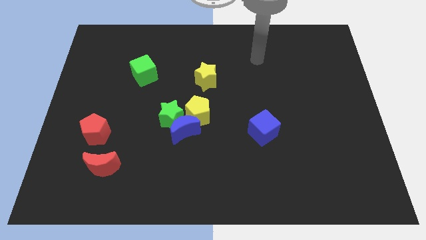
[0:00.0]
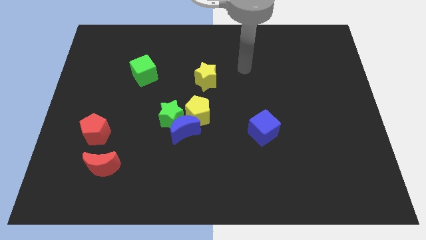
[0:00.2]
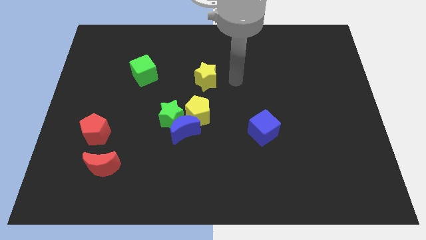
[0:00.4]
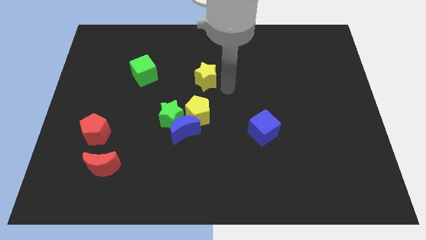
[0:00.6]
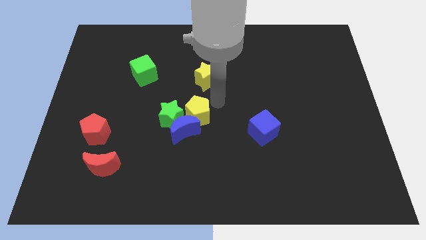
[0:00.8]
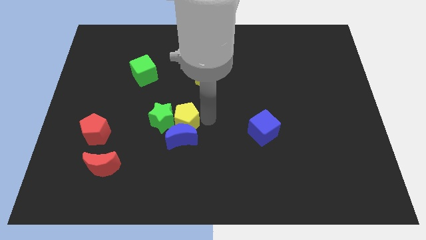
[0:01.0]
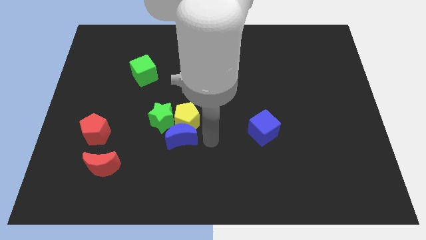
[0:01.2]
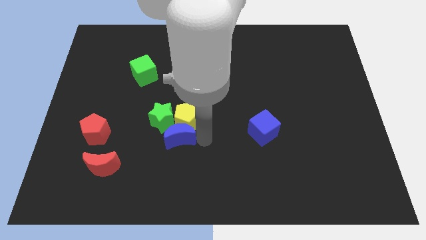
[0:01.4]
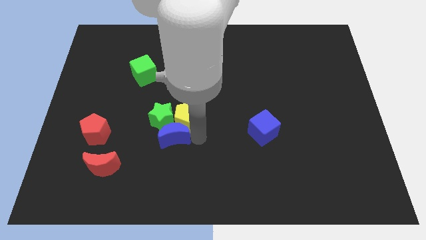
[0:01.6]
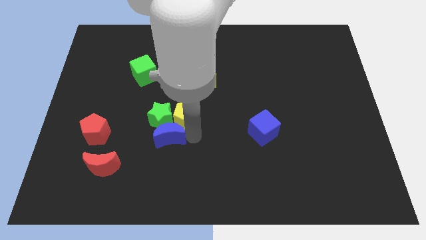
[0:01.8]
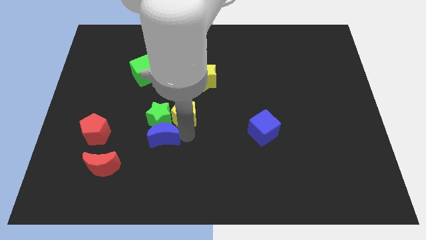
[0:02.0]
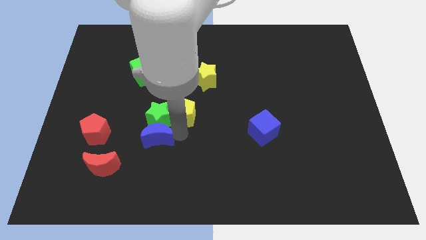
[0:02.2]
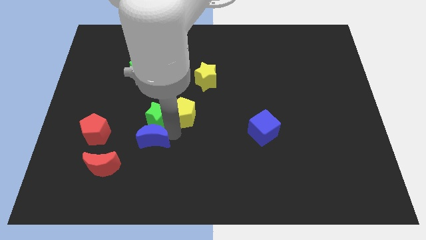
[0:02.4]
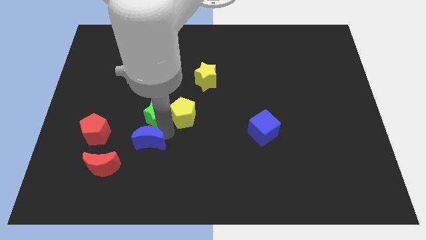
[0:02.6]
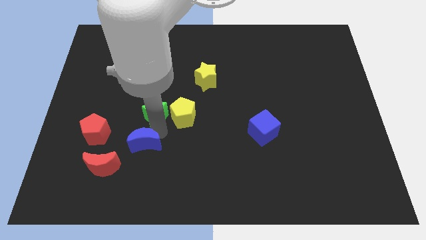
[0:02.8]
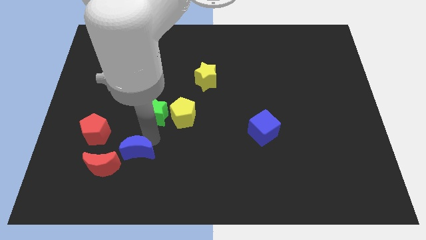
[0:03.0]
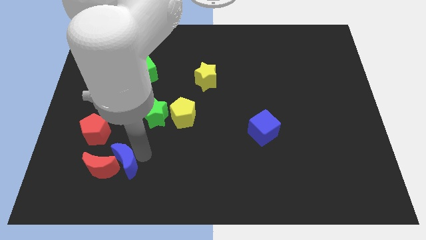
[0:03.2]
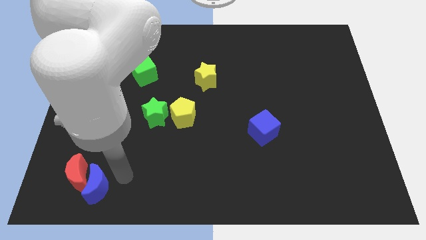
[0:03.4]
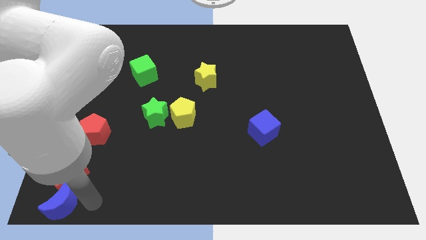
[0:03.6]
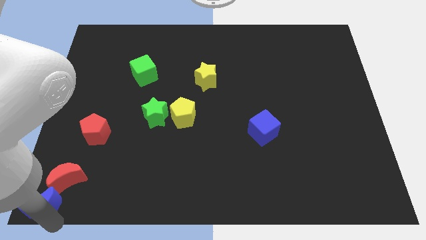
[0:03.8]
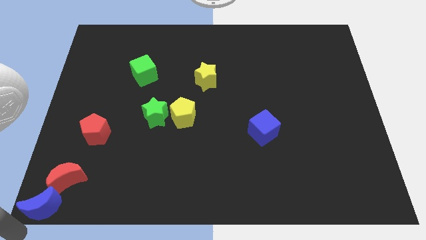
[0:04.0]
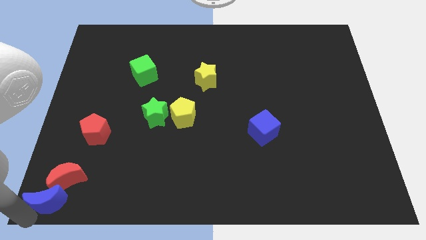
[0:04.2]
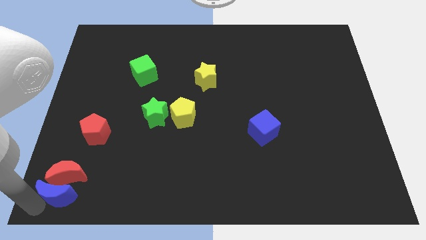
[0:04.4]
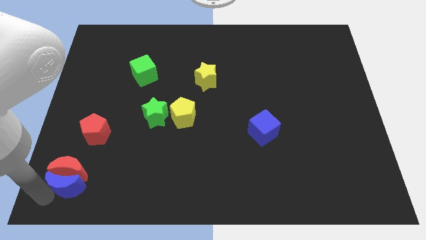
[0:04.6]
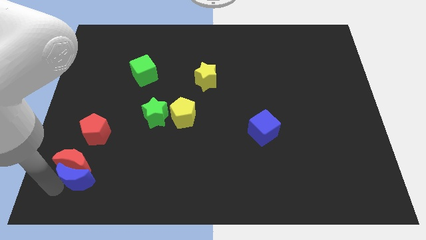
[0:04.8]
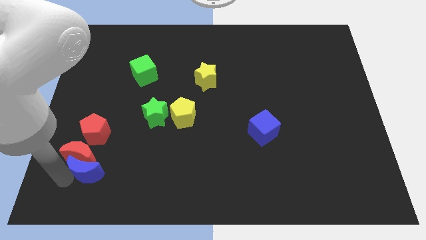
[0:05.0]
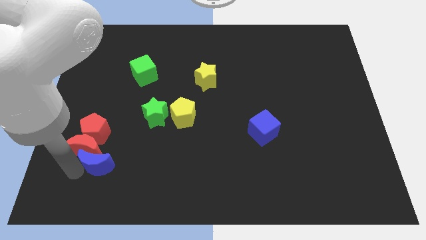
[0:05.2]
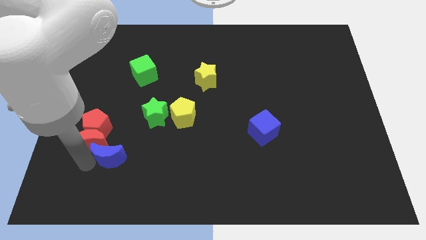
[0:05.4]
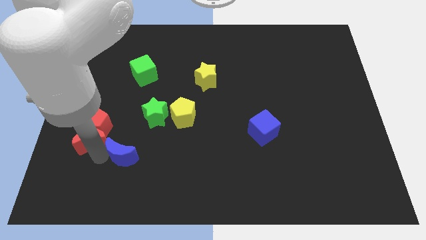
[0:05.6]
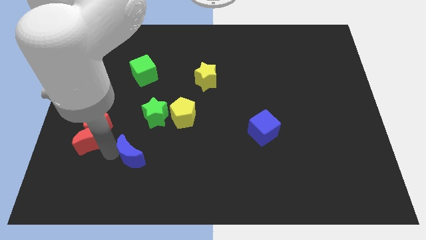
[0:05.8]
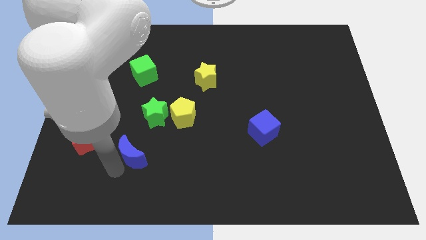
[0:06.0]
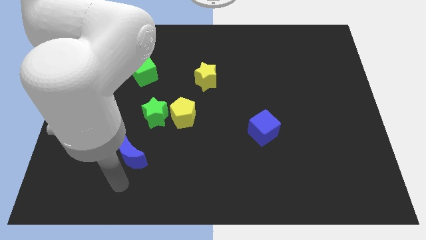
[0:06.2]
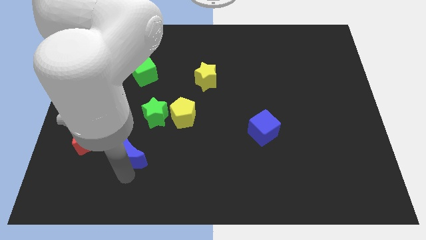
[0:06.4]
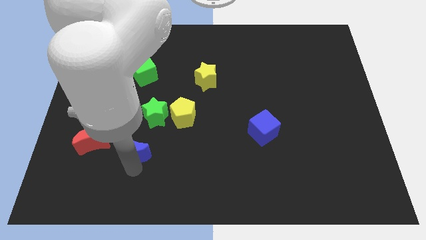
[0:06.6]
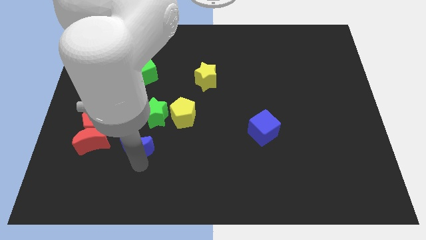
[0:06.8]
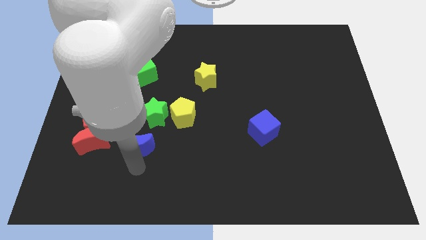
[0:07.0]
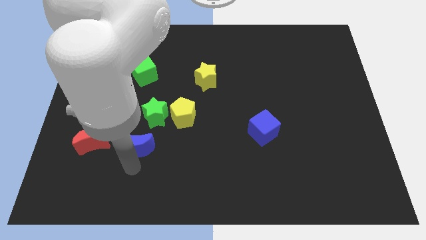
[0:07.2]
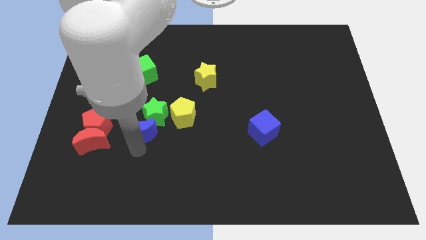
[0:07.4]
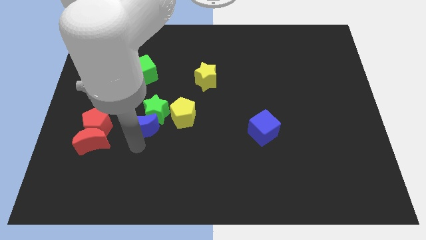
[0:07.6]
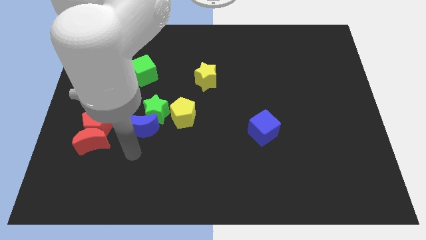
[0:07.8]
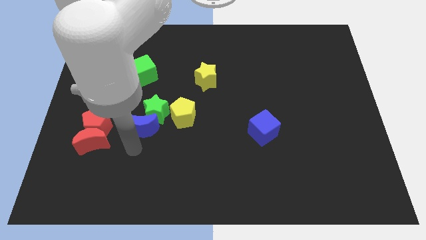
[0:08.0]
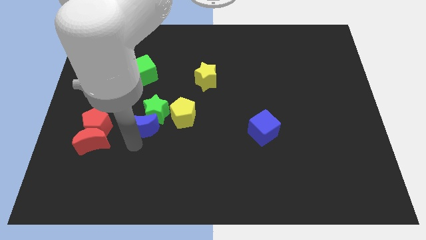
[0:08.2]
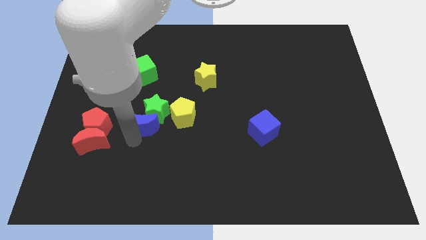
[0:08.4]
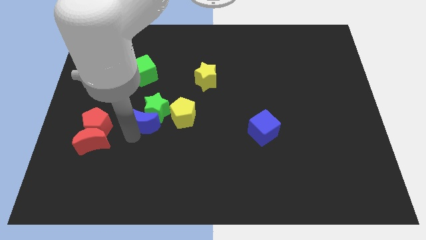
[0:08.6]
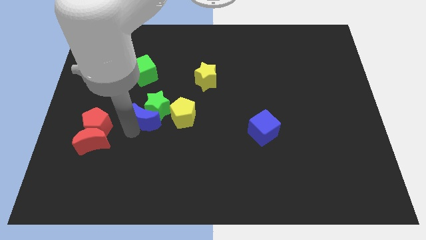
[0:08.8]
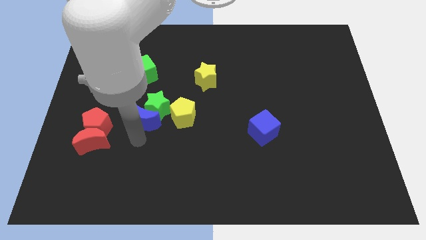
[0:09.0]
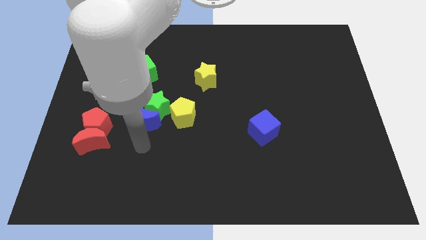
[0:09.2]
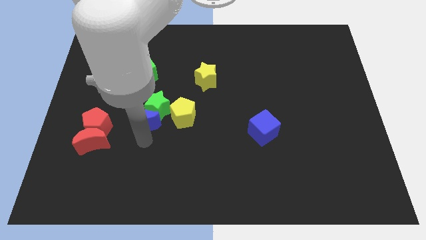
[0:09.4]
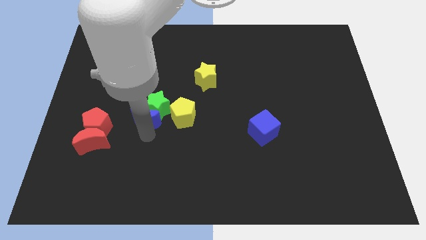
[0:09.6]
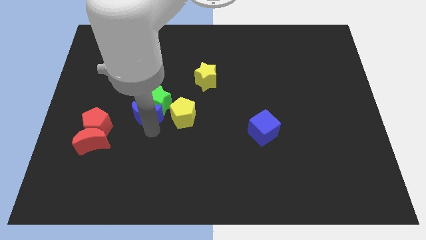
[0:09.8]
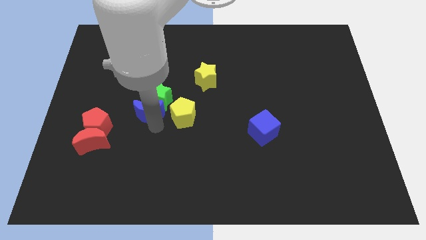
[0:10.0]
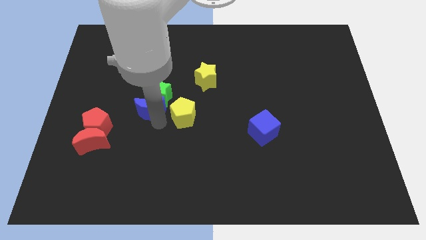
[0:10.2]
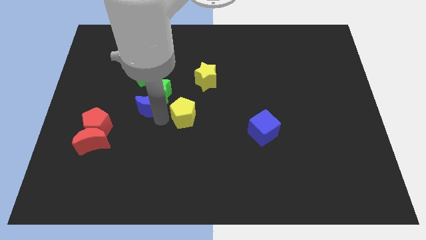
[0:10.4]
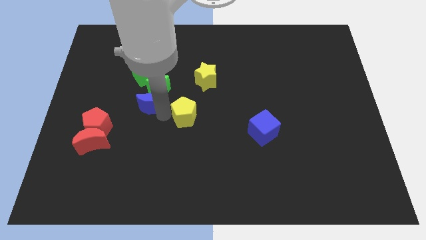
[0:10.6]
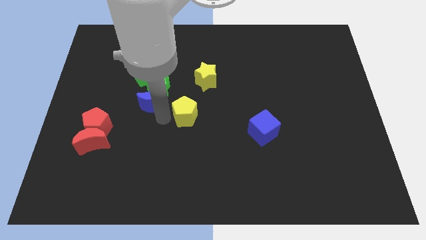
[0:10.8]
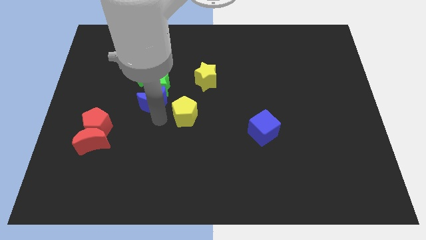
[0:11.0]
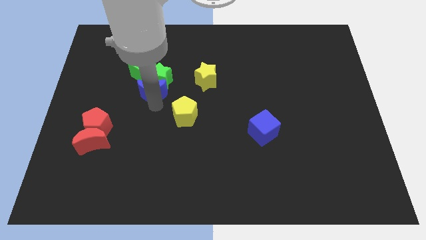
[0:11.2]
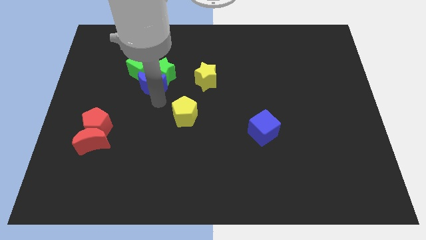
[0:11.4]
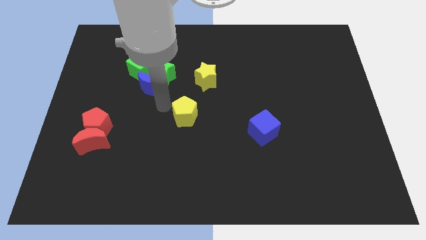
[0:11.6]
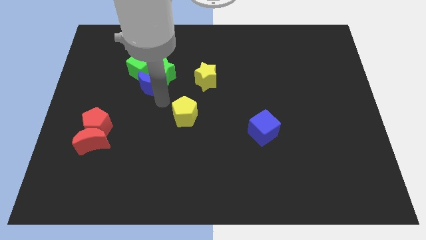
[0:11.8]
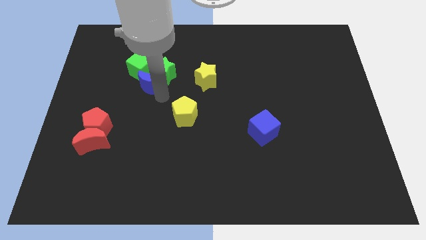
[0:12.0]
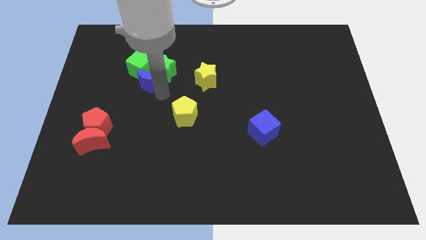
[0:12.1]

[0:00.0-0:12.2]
push the blue moon close to the green cube

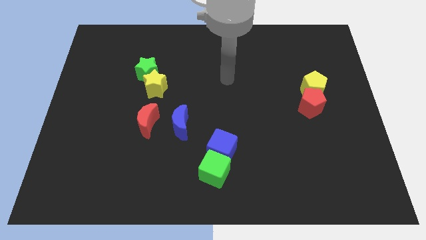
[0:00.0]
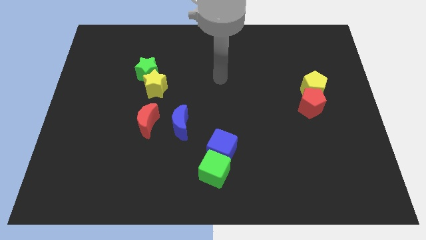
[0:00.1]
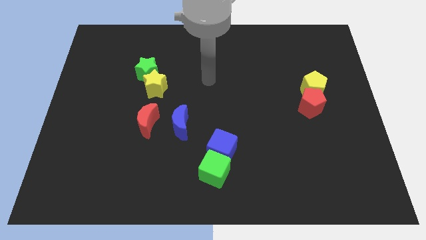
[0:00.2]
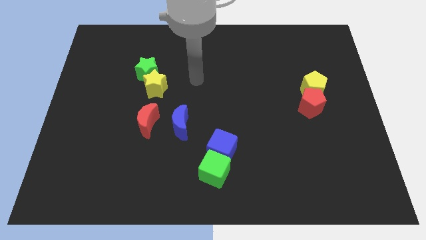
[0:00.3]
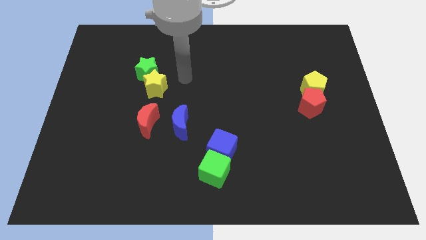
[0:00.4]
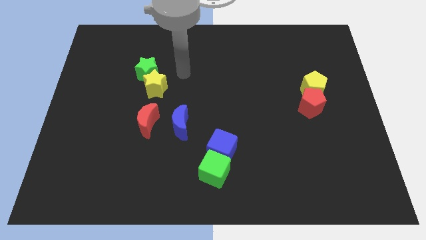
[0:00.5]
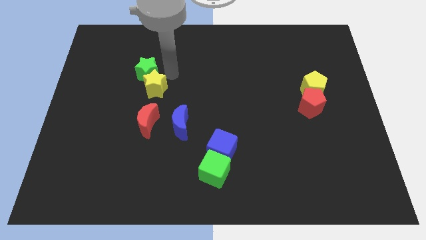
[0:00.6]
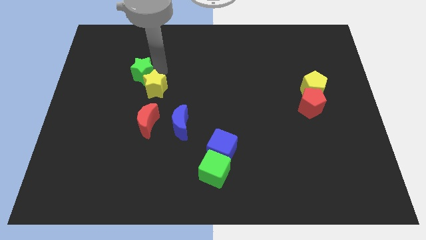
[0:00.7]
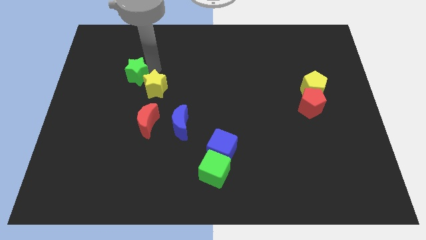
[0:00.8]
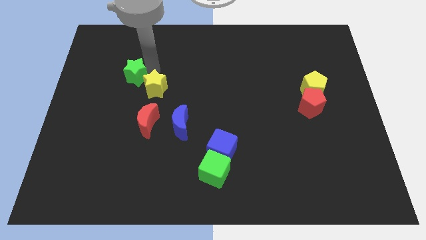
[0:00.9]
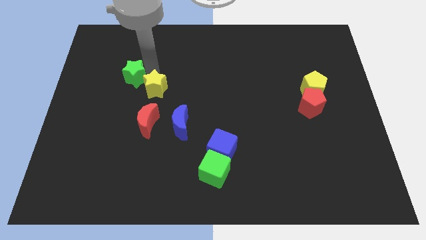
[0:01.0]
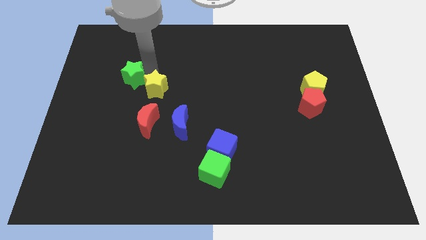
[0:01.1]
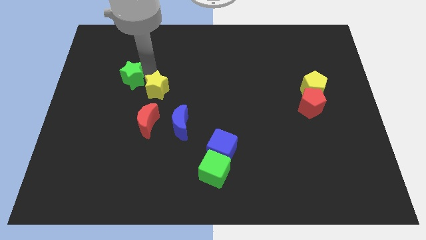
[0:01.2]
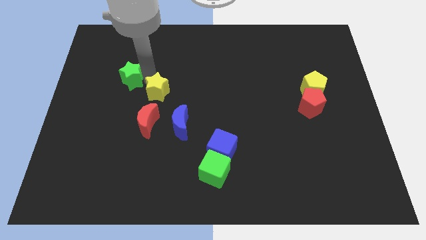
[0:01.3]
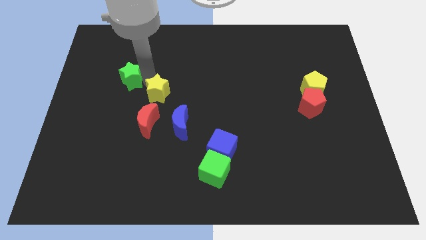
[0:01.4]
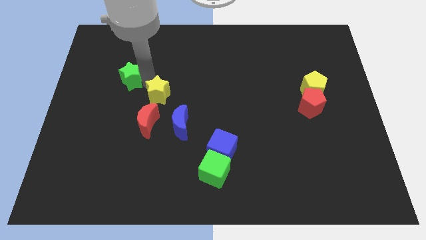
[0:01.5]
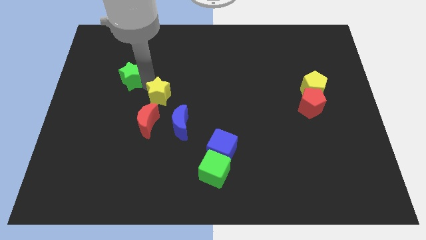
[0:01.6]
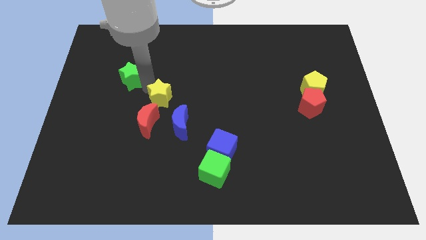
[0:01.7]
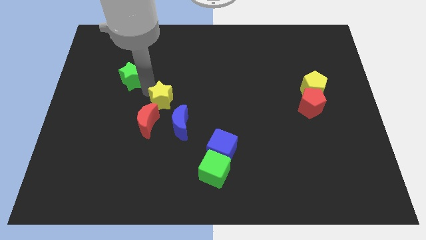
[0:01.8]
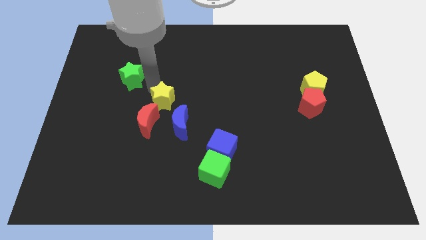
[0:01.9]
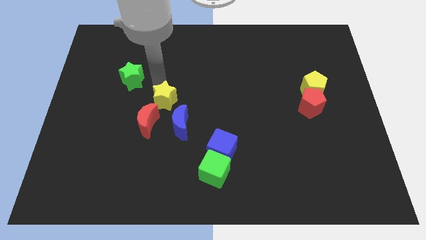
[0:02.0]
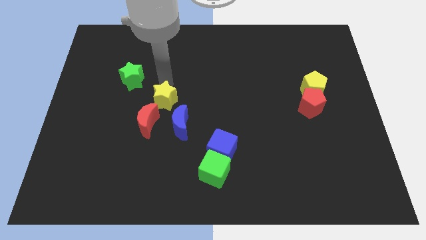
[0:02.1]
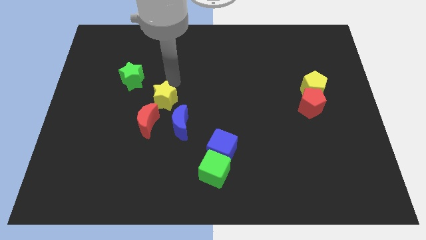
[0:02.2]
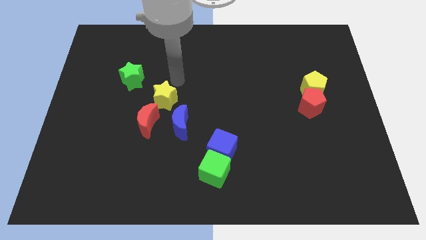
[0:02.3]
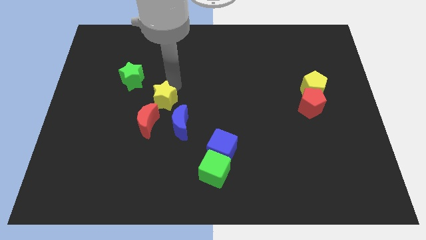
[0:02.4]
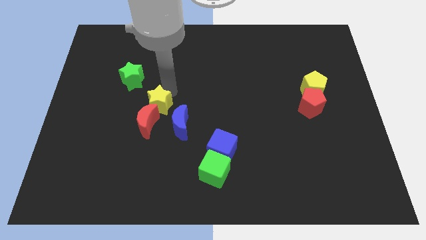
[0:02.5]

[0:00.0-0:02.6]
move the yellow star towards the red moon
